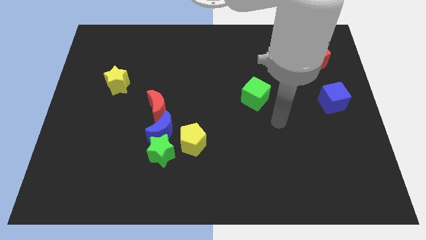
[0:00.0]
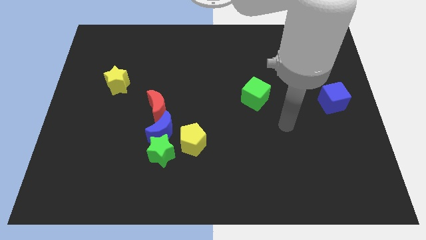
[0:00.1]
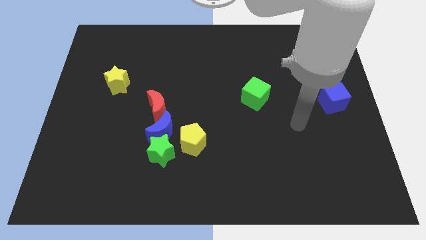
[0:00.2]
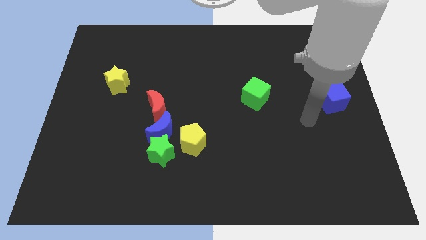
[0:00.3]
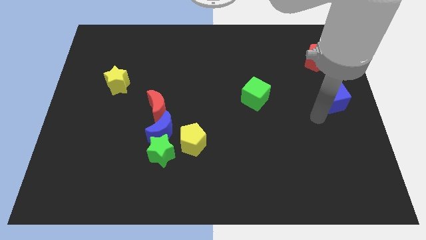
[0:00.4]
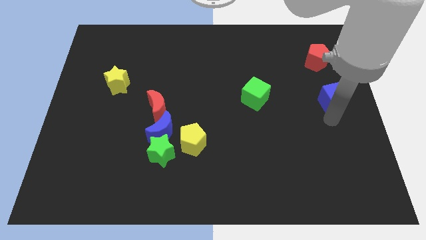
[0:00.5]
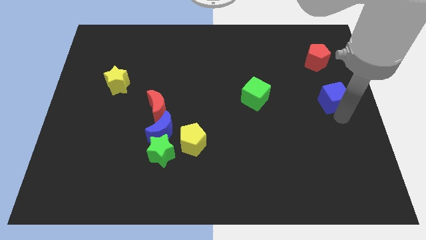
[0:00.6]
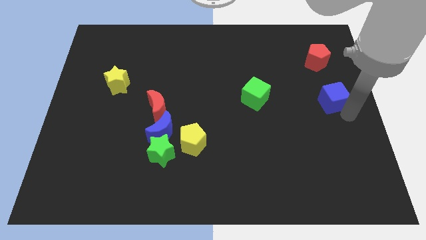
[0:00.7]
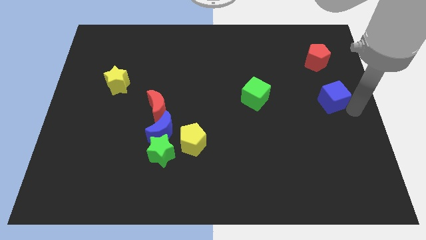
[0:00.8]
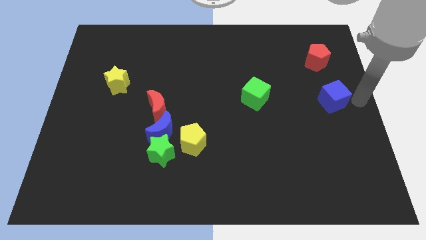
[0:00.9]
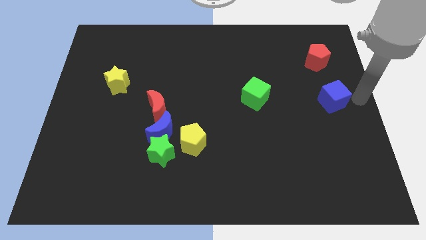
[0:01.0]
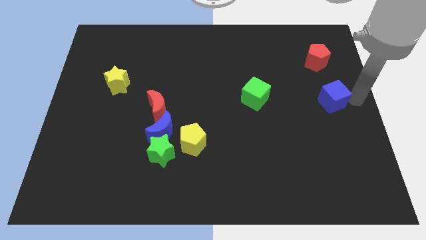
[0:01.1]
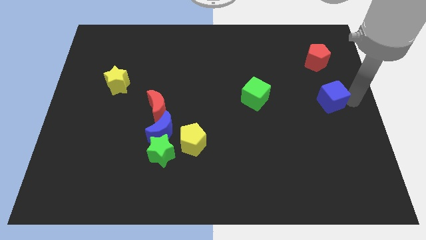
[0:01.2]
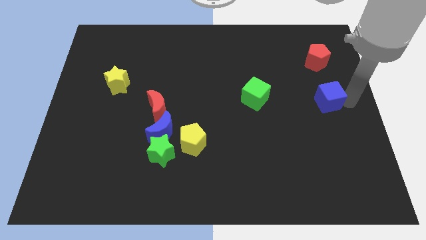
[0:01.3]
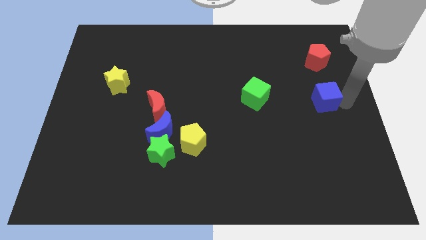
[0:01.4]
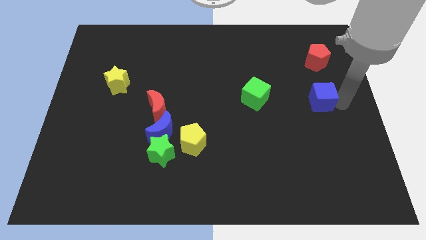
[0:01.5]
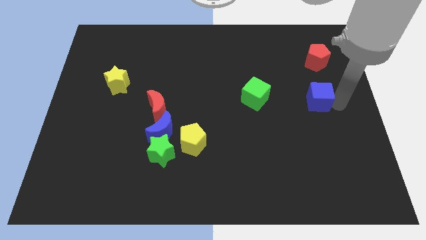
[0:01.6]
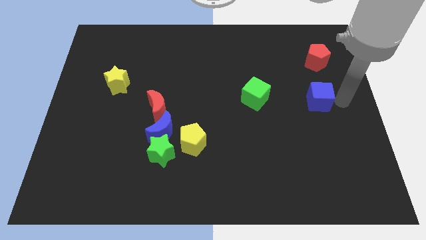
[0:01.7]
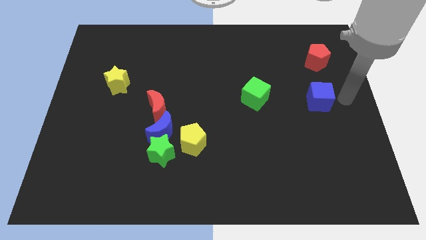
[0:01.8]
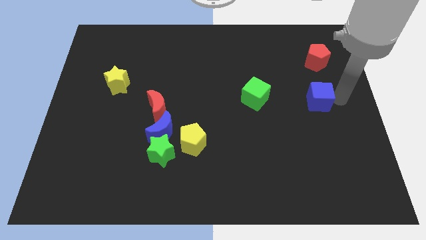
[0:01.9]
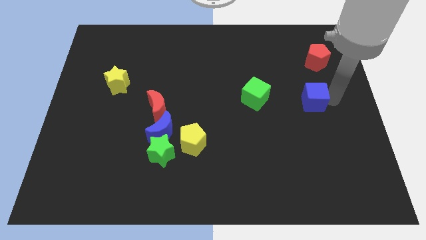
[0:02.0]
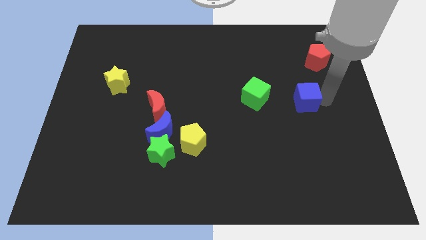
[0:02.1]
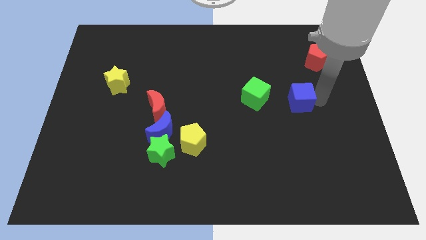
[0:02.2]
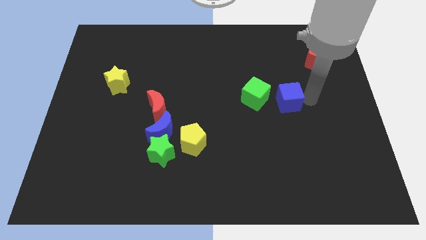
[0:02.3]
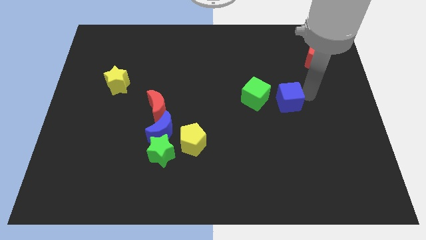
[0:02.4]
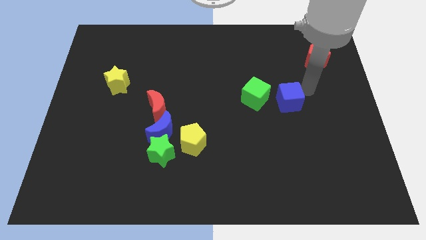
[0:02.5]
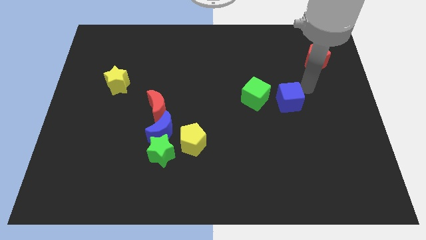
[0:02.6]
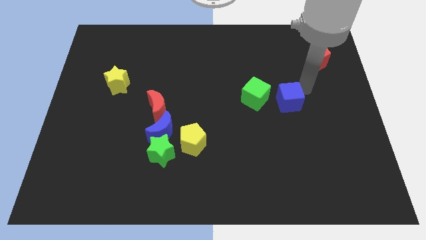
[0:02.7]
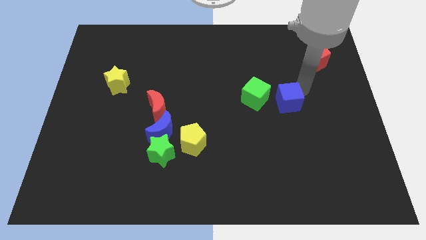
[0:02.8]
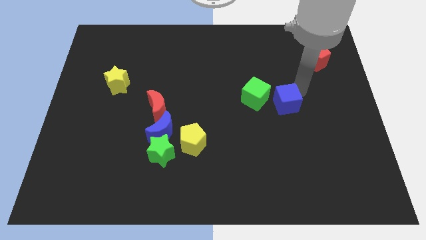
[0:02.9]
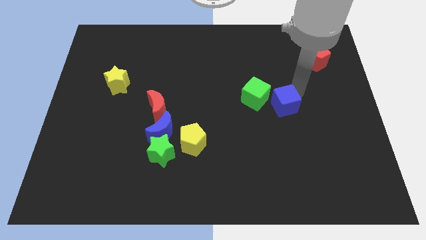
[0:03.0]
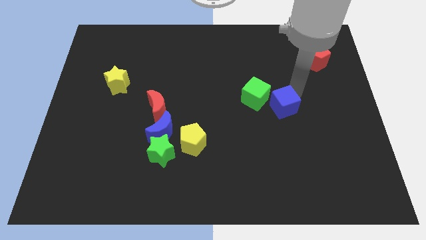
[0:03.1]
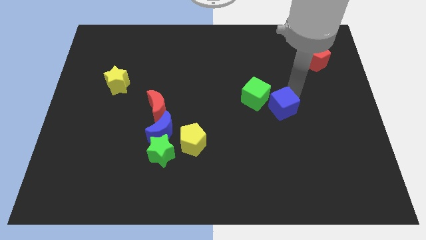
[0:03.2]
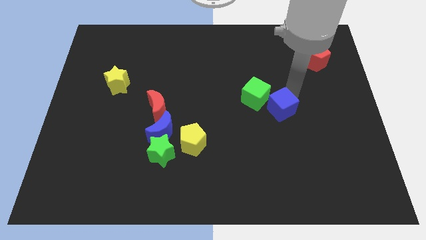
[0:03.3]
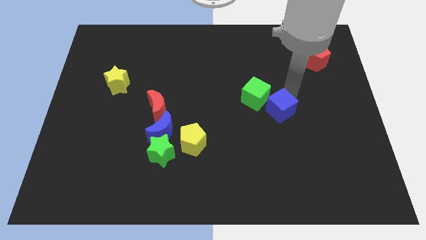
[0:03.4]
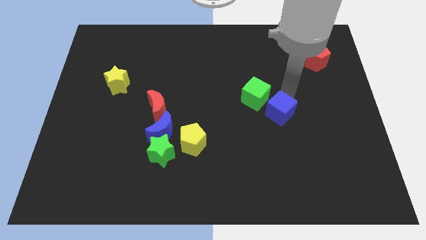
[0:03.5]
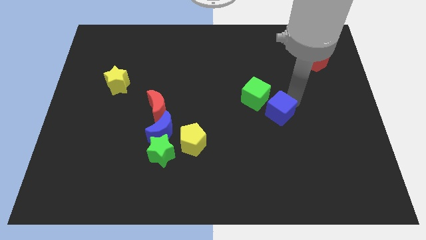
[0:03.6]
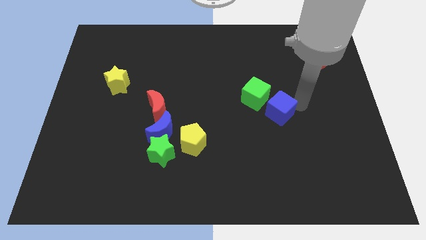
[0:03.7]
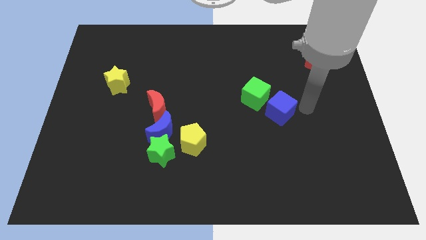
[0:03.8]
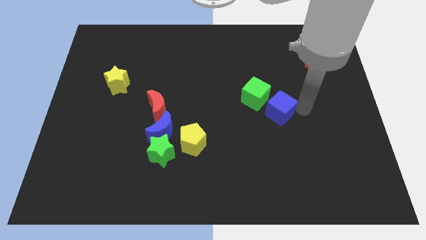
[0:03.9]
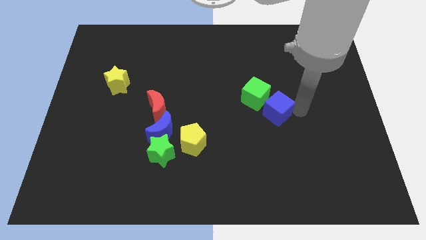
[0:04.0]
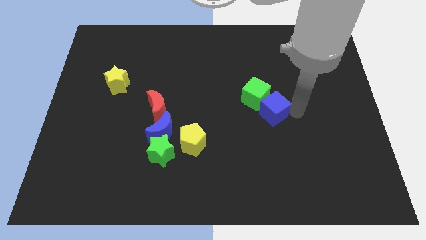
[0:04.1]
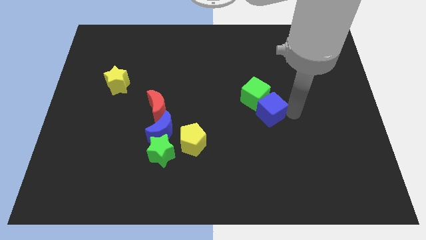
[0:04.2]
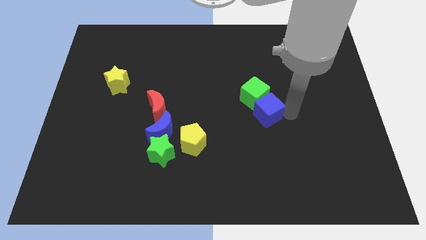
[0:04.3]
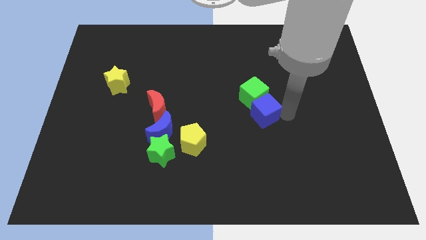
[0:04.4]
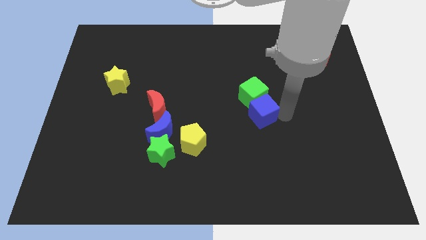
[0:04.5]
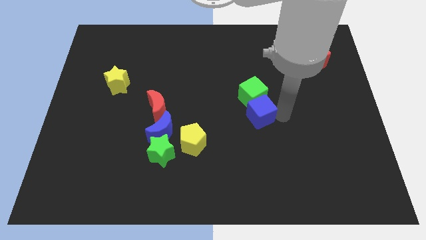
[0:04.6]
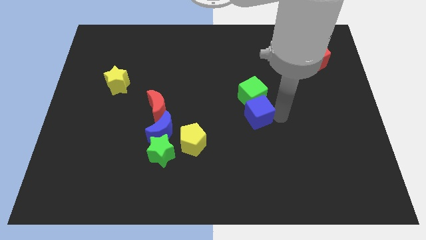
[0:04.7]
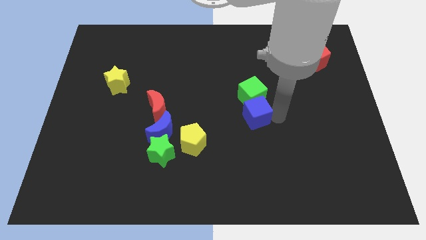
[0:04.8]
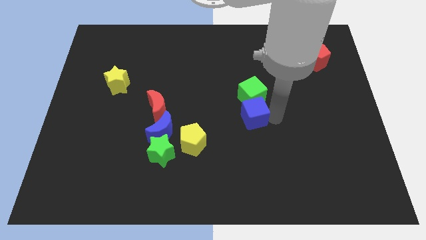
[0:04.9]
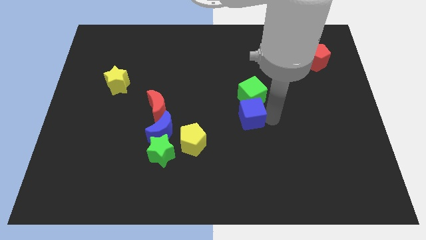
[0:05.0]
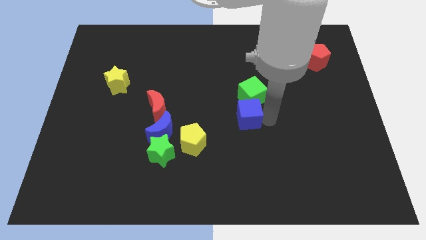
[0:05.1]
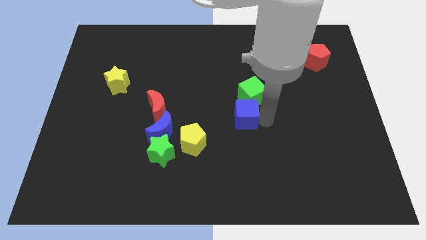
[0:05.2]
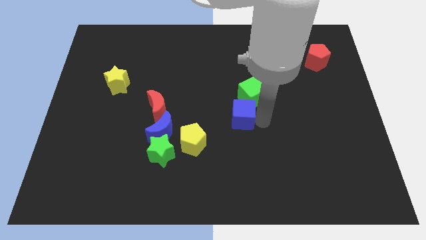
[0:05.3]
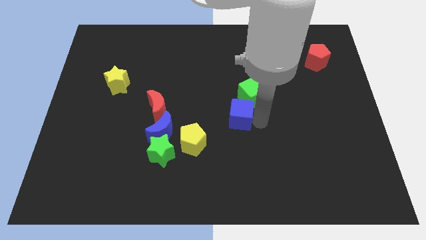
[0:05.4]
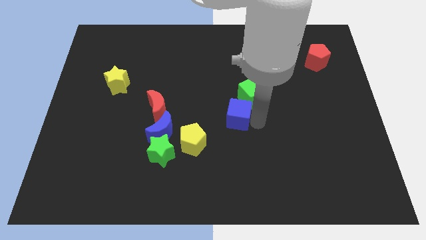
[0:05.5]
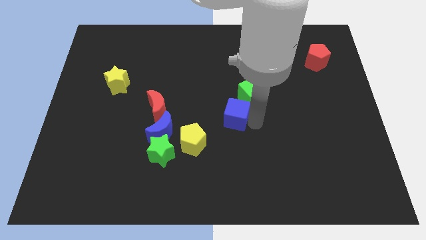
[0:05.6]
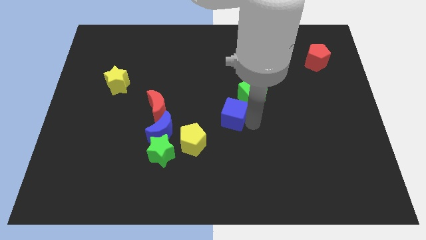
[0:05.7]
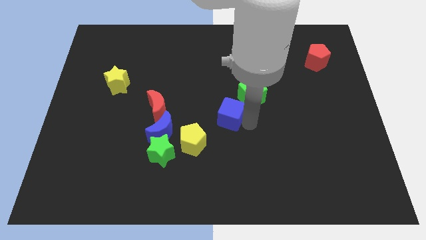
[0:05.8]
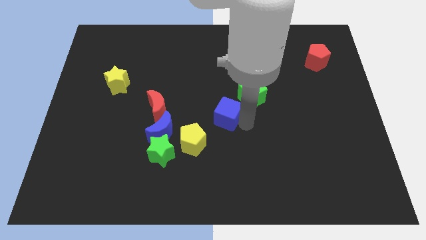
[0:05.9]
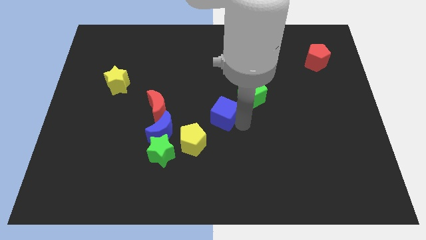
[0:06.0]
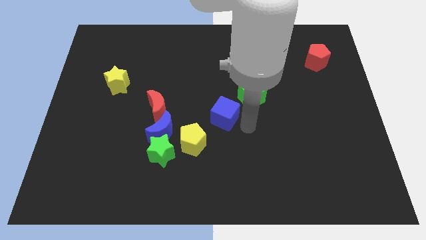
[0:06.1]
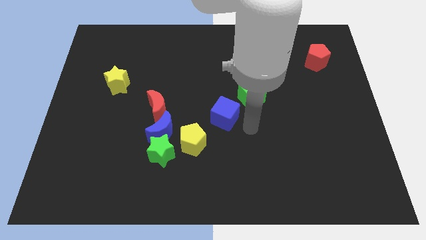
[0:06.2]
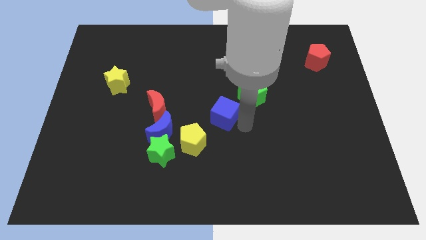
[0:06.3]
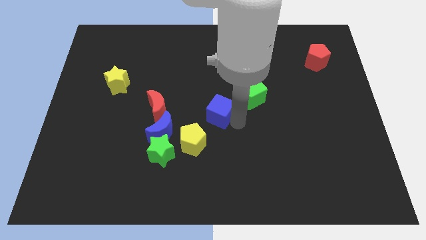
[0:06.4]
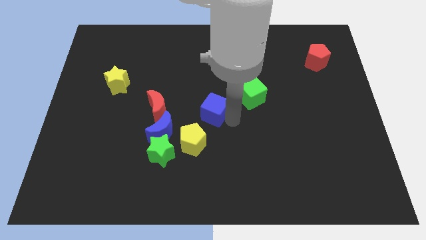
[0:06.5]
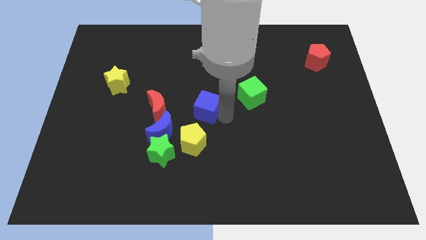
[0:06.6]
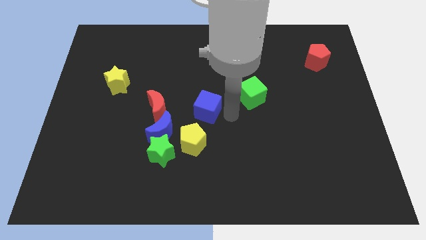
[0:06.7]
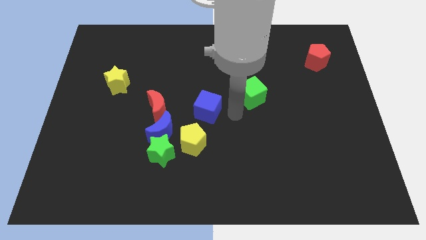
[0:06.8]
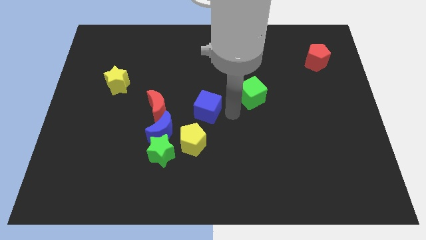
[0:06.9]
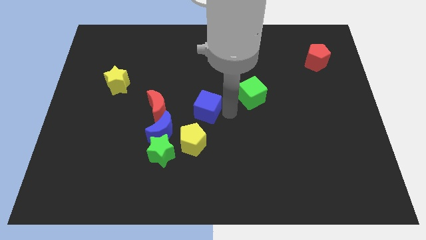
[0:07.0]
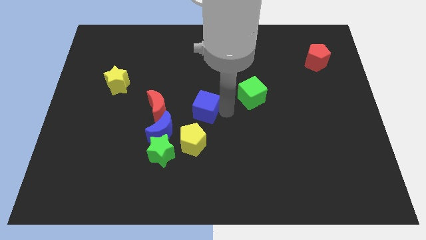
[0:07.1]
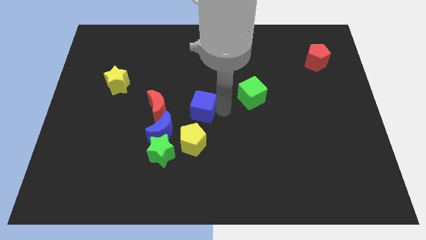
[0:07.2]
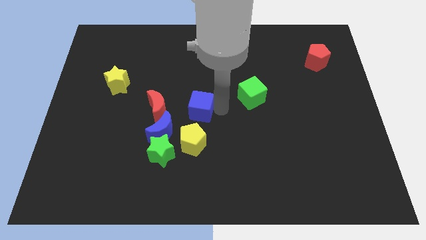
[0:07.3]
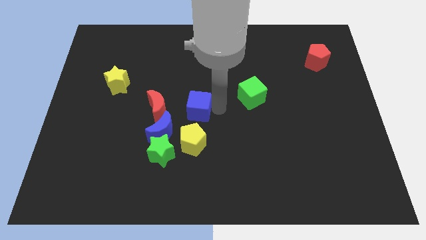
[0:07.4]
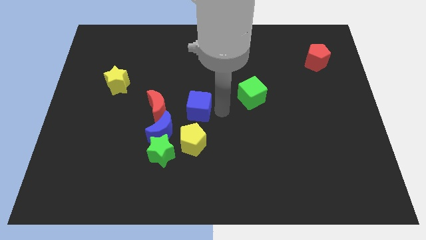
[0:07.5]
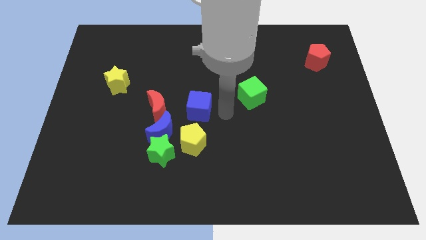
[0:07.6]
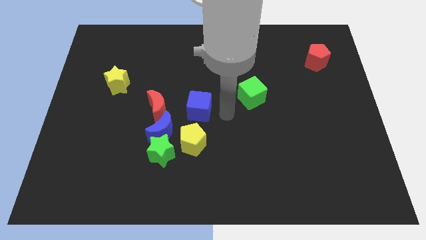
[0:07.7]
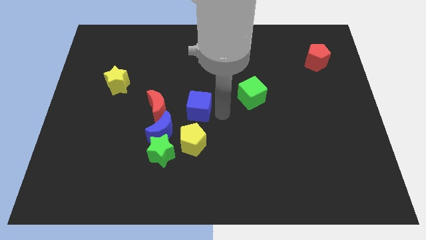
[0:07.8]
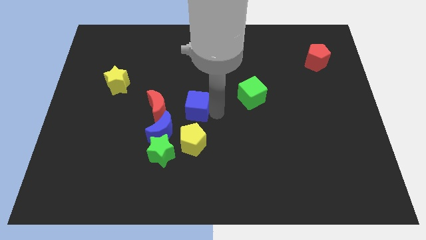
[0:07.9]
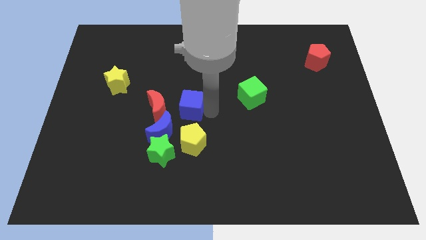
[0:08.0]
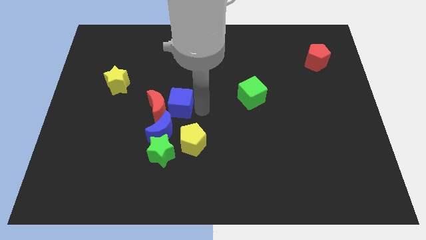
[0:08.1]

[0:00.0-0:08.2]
slide the blue cube to the red moon
